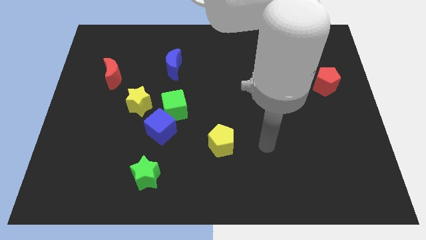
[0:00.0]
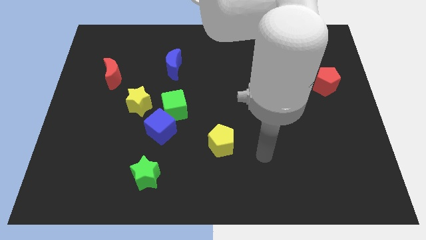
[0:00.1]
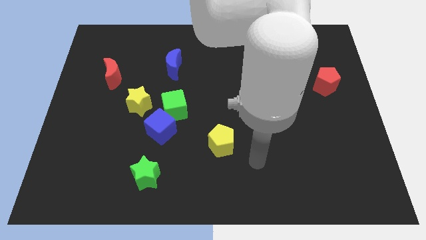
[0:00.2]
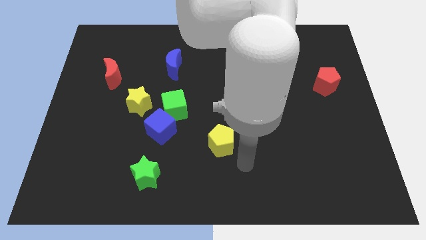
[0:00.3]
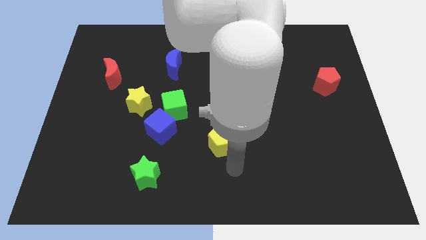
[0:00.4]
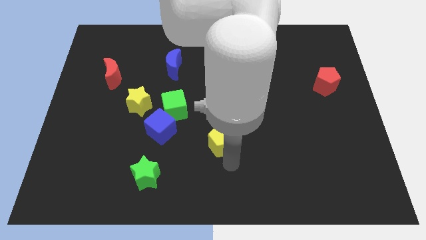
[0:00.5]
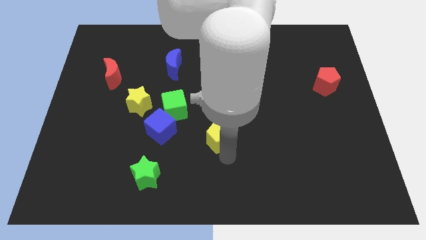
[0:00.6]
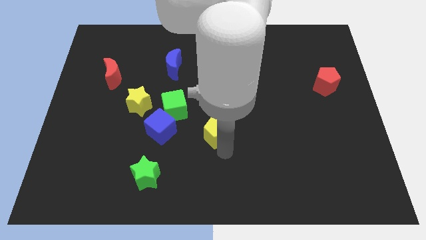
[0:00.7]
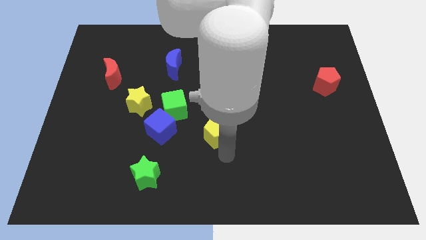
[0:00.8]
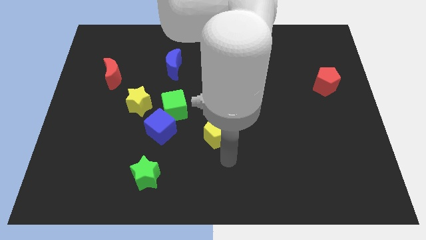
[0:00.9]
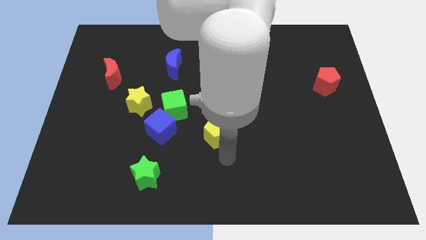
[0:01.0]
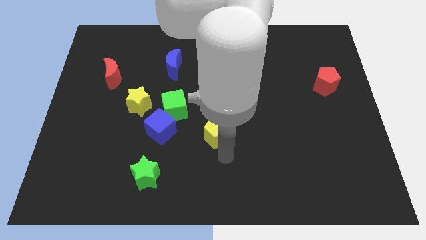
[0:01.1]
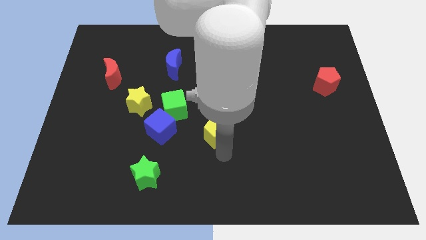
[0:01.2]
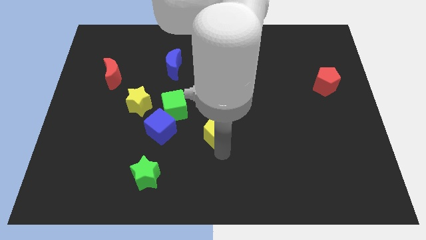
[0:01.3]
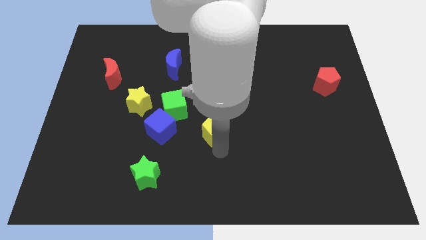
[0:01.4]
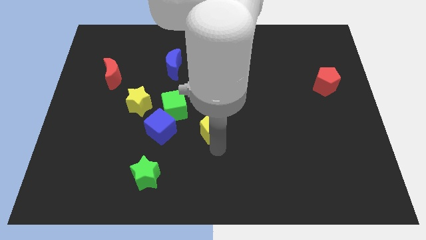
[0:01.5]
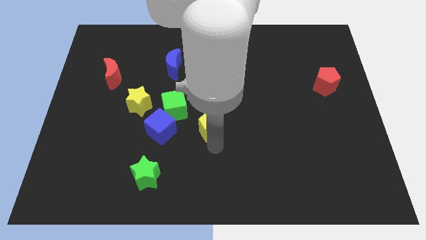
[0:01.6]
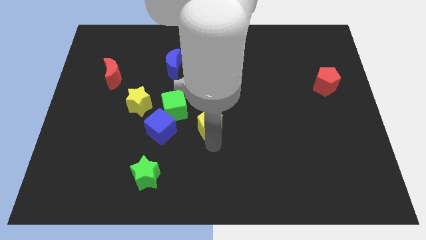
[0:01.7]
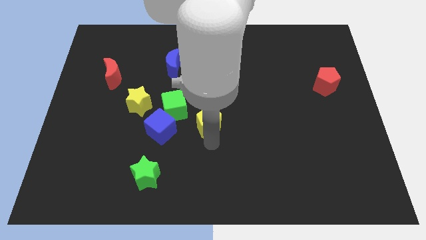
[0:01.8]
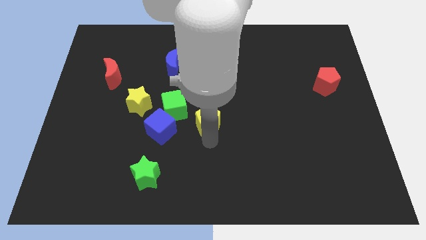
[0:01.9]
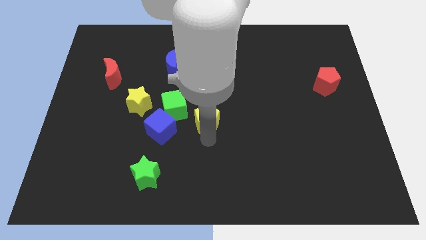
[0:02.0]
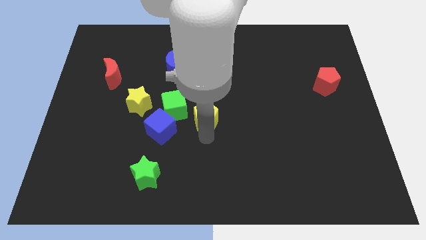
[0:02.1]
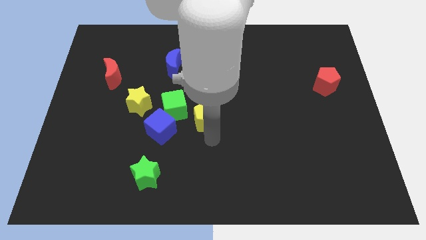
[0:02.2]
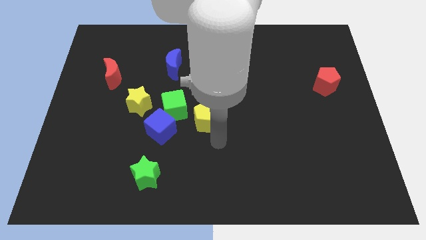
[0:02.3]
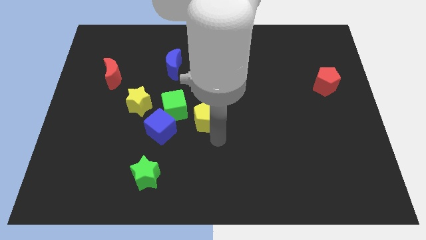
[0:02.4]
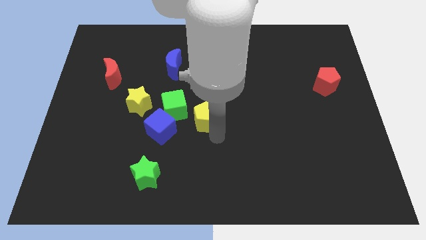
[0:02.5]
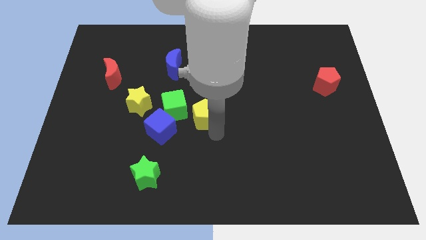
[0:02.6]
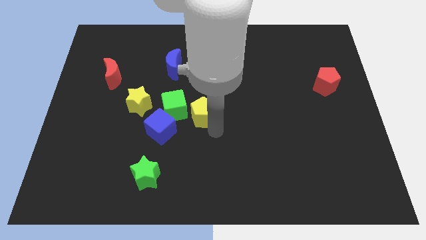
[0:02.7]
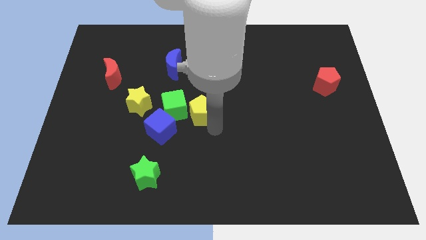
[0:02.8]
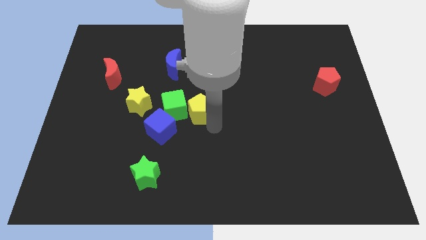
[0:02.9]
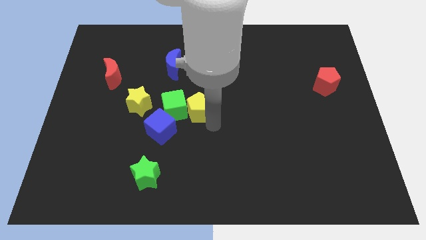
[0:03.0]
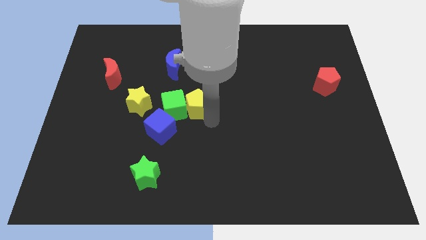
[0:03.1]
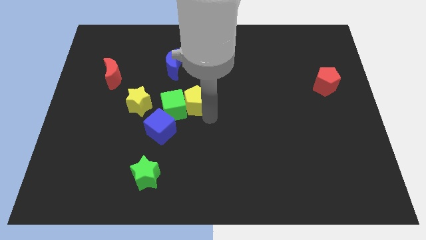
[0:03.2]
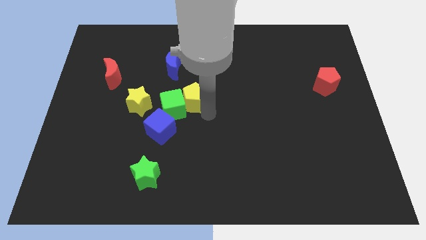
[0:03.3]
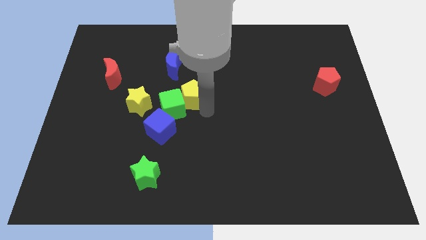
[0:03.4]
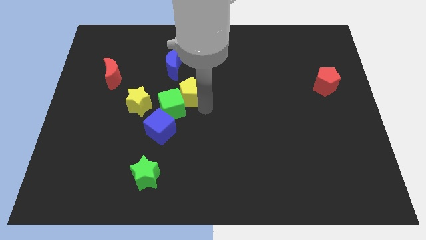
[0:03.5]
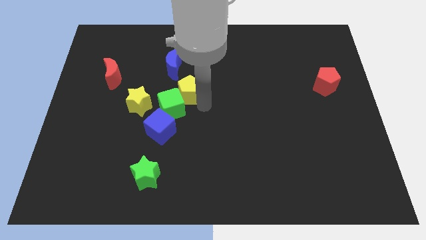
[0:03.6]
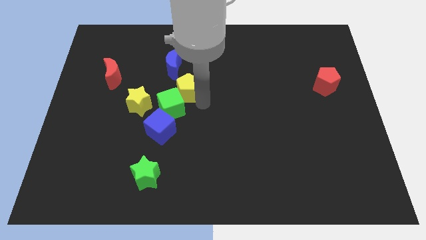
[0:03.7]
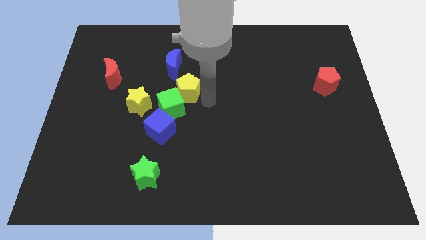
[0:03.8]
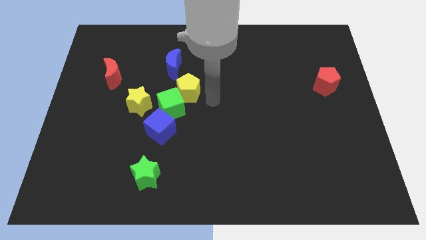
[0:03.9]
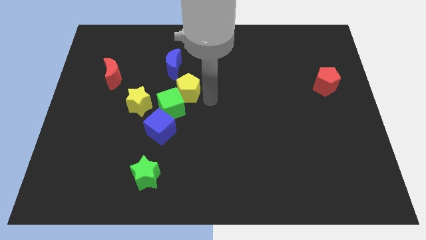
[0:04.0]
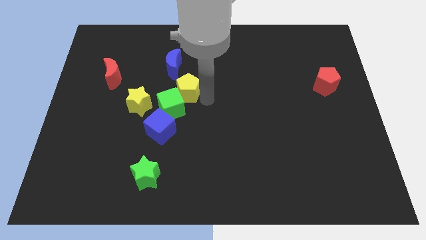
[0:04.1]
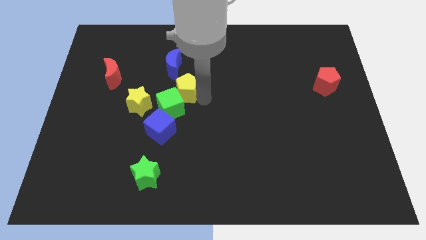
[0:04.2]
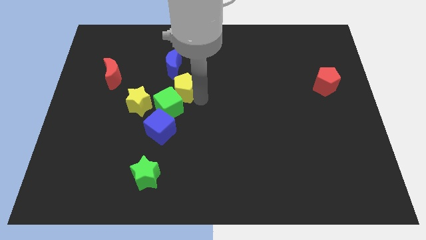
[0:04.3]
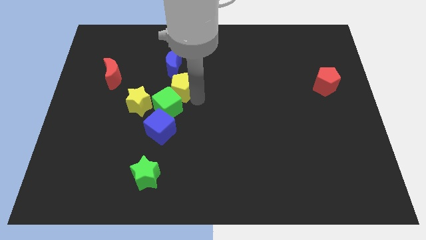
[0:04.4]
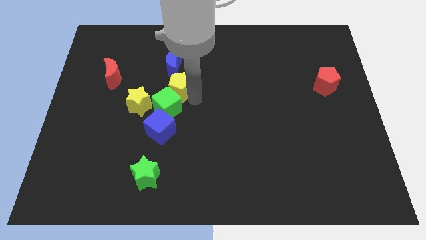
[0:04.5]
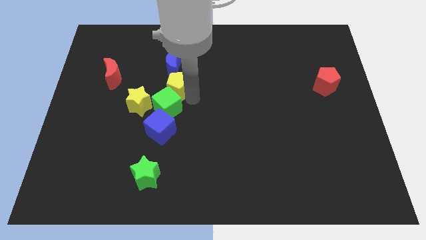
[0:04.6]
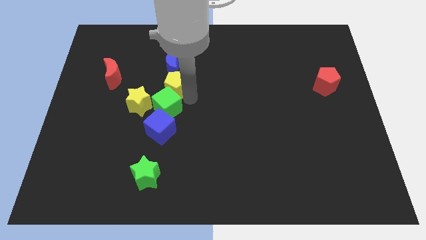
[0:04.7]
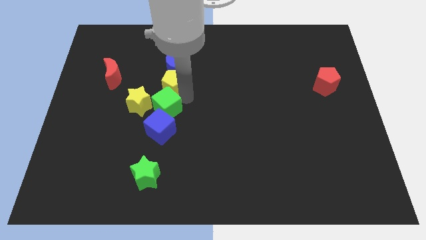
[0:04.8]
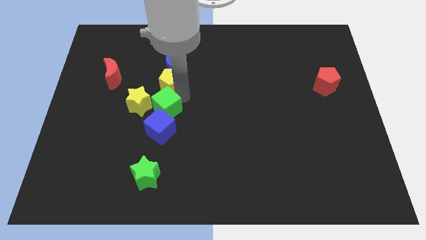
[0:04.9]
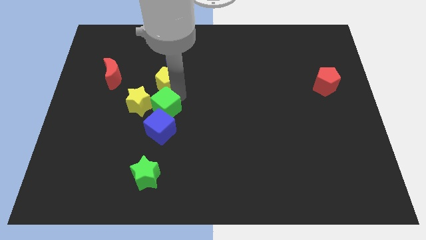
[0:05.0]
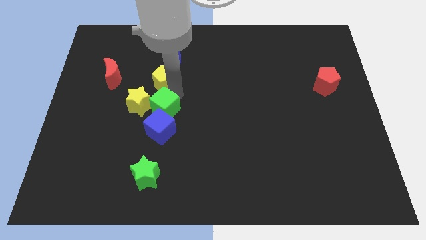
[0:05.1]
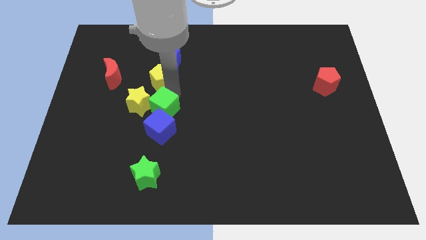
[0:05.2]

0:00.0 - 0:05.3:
slide the yellow pentagon to the top side of the yellow star

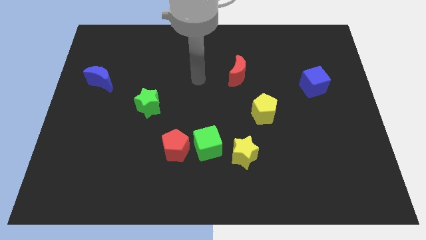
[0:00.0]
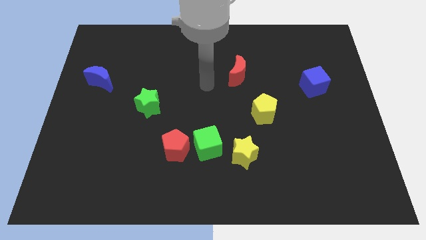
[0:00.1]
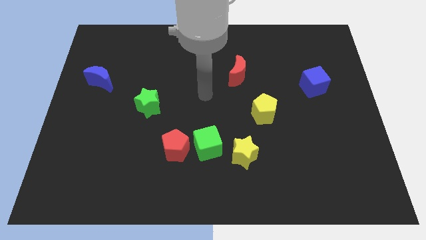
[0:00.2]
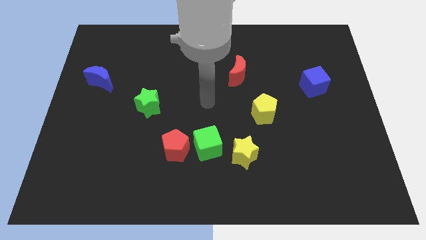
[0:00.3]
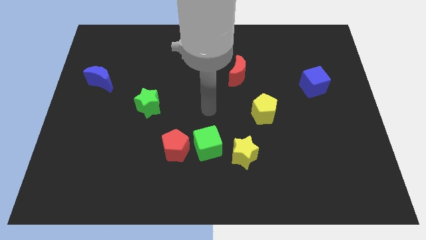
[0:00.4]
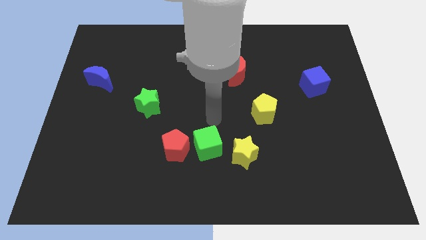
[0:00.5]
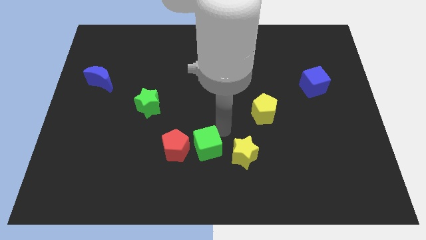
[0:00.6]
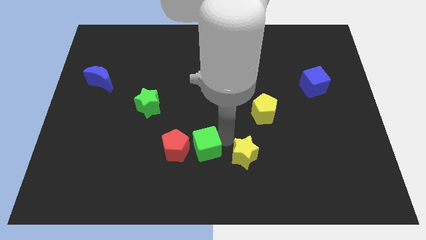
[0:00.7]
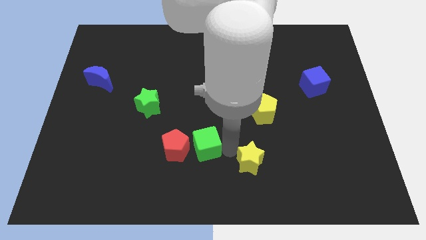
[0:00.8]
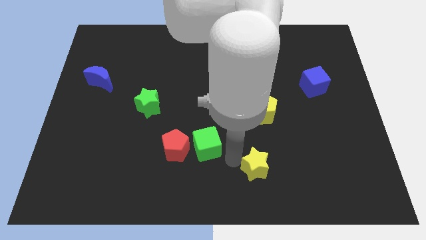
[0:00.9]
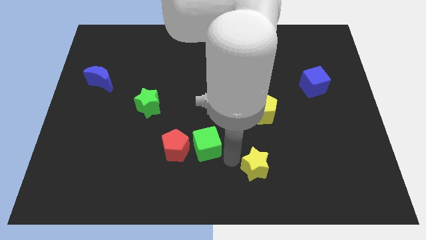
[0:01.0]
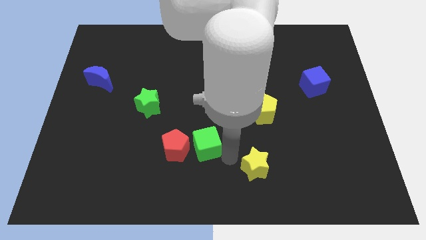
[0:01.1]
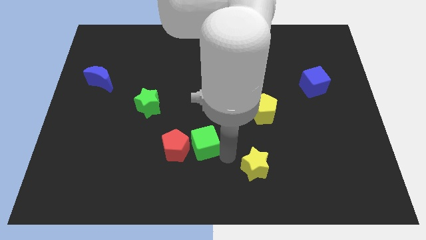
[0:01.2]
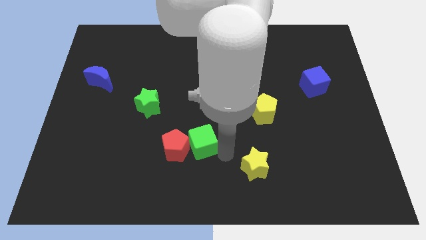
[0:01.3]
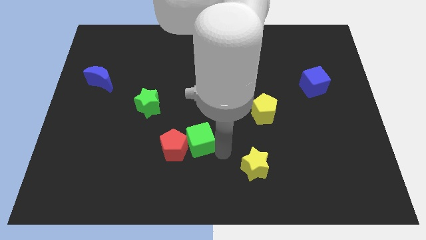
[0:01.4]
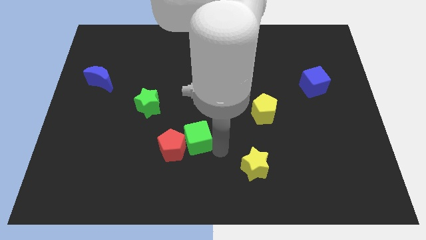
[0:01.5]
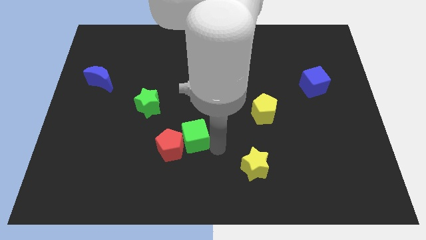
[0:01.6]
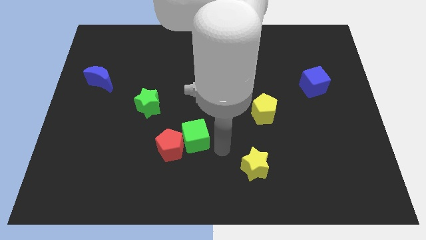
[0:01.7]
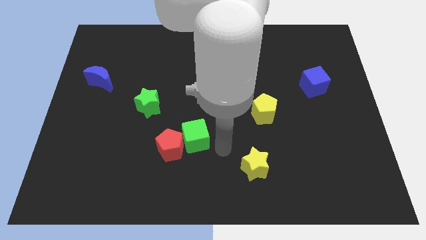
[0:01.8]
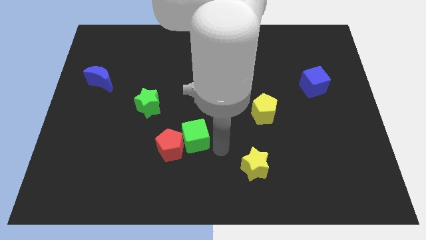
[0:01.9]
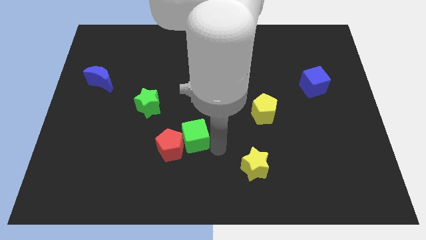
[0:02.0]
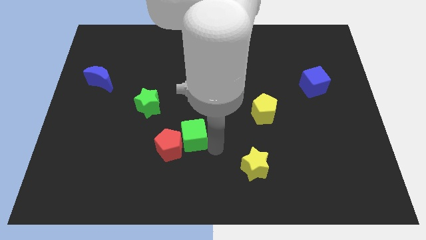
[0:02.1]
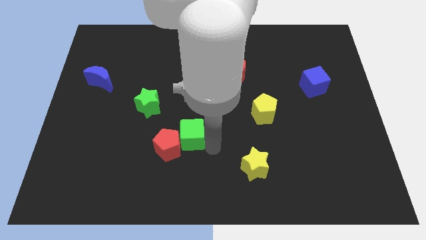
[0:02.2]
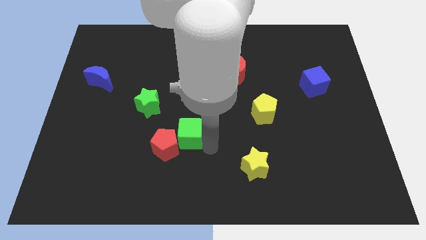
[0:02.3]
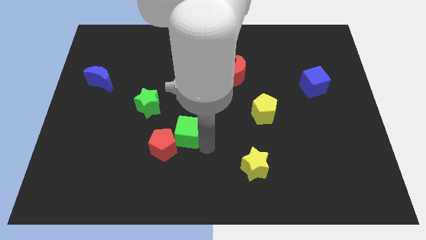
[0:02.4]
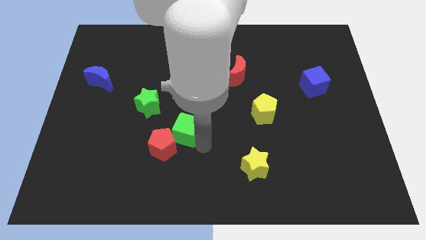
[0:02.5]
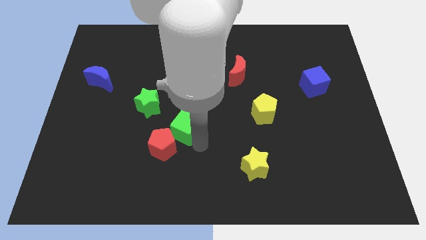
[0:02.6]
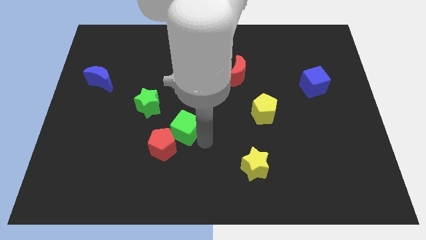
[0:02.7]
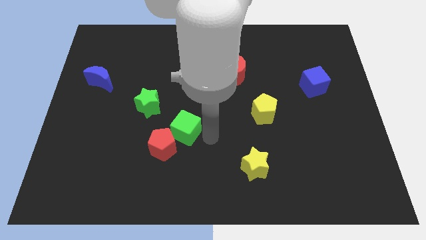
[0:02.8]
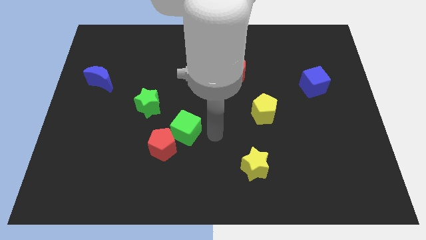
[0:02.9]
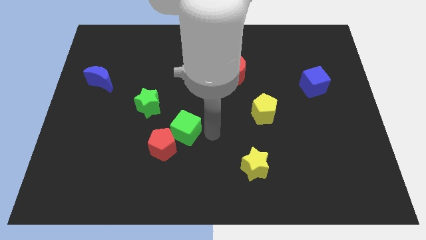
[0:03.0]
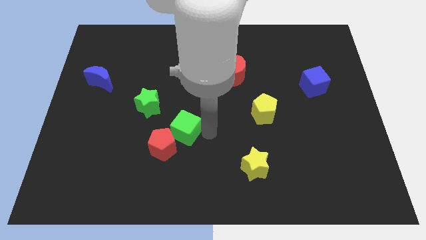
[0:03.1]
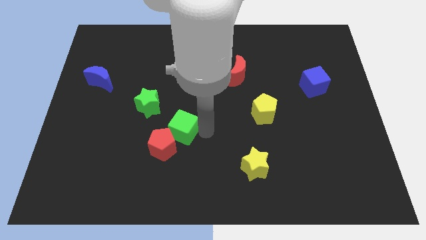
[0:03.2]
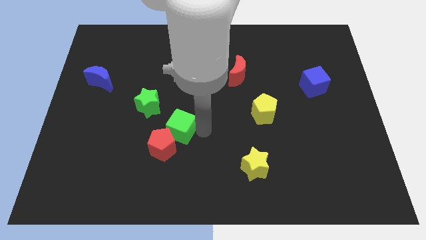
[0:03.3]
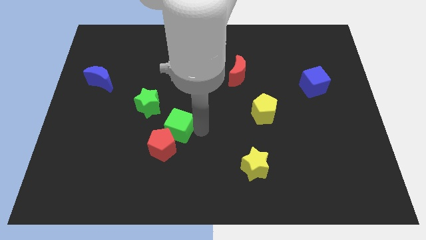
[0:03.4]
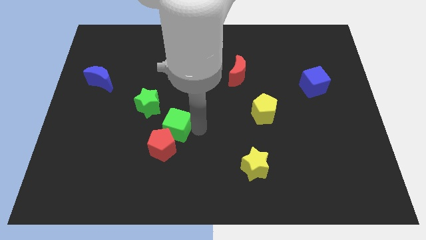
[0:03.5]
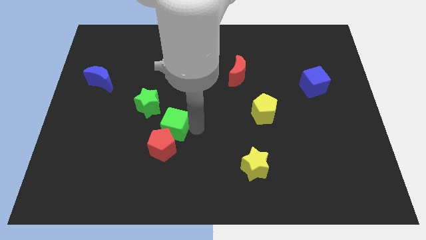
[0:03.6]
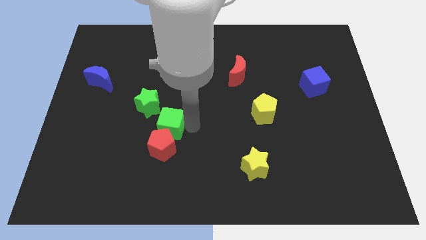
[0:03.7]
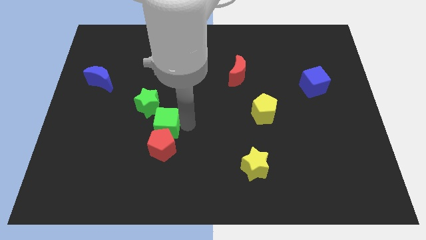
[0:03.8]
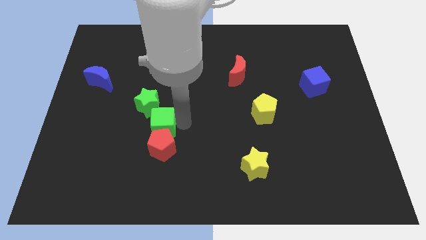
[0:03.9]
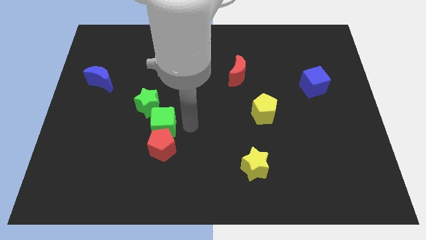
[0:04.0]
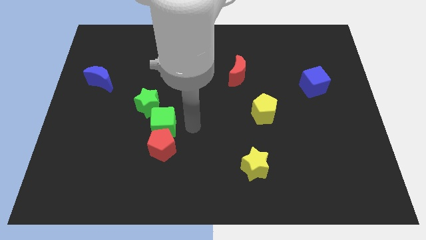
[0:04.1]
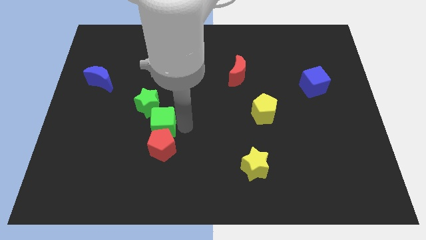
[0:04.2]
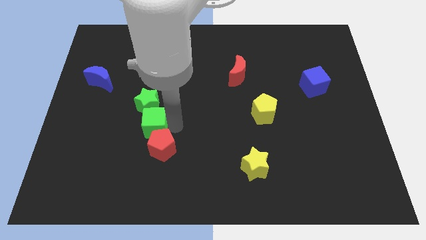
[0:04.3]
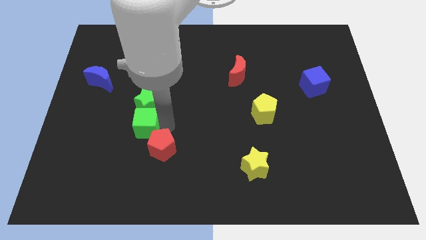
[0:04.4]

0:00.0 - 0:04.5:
move the green cube to the bottom left side of the green star
